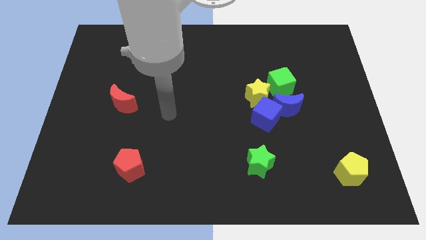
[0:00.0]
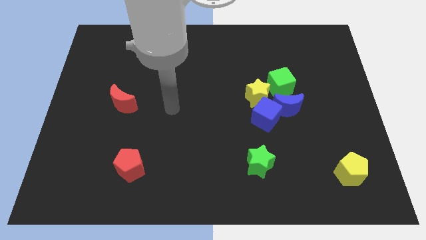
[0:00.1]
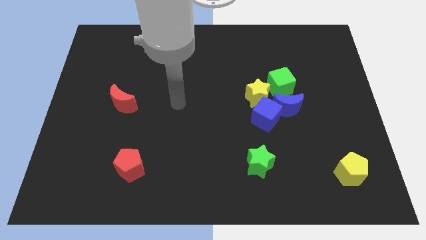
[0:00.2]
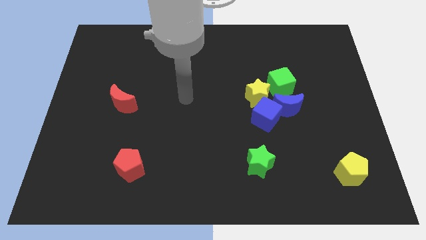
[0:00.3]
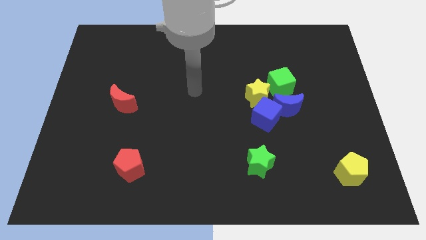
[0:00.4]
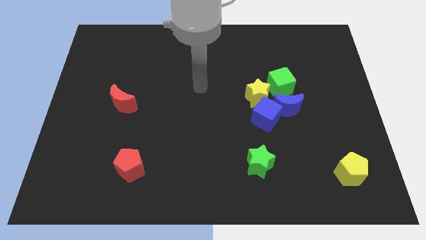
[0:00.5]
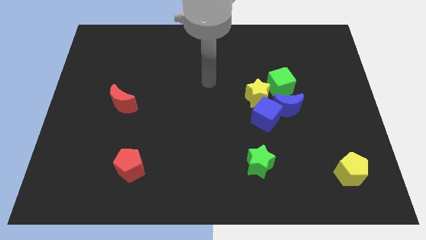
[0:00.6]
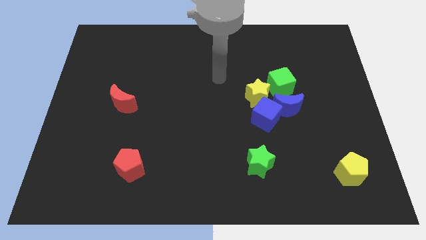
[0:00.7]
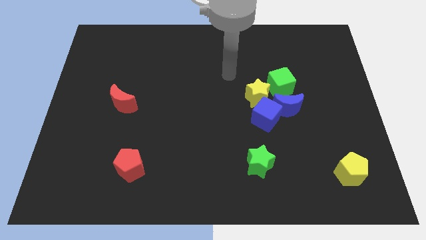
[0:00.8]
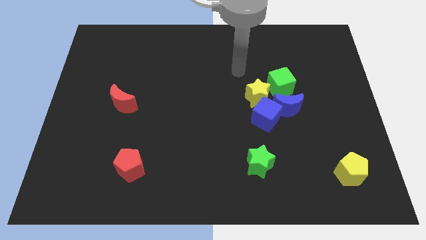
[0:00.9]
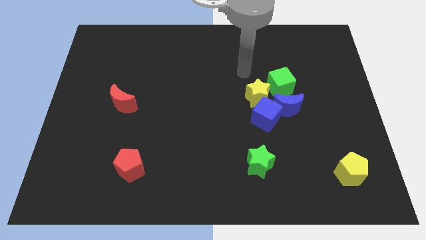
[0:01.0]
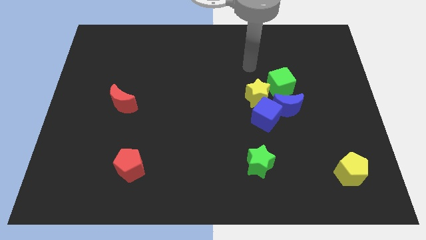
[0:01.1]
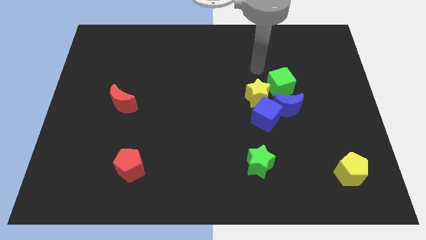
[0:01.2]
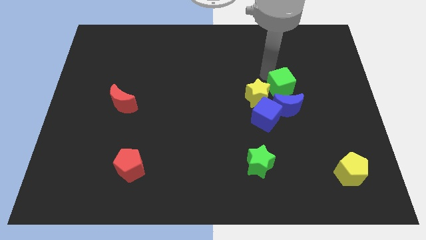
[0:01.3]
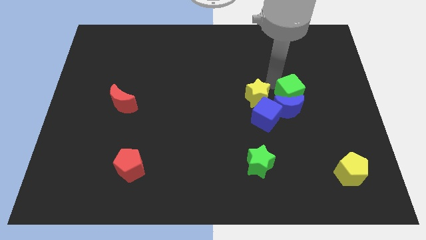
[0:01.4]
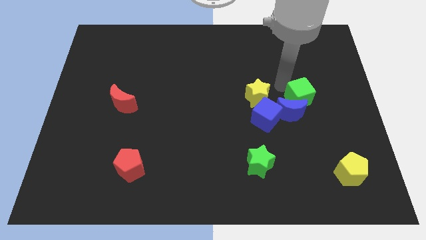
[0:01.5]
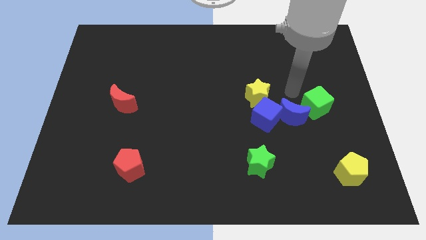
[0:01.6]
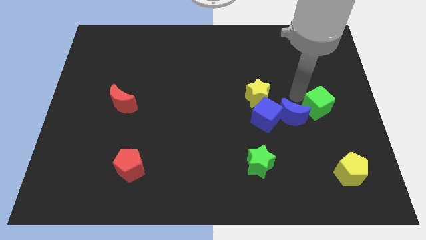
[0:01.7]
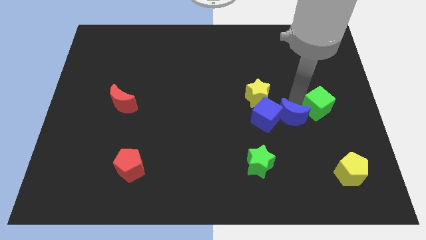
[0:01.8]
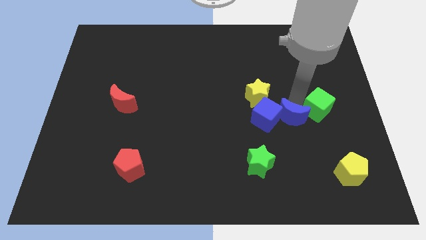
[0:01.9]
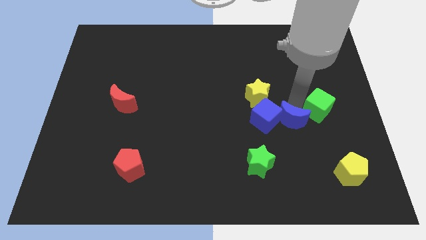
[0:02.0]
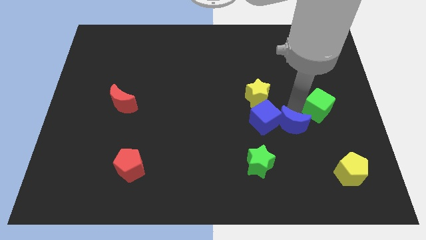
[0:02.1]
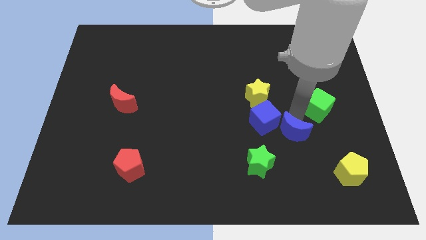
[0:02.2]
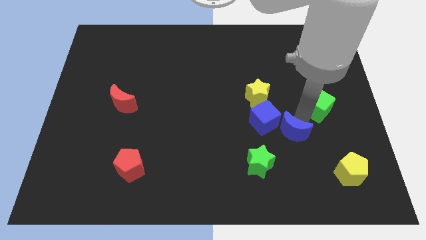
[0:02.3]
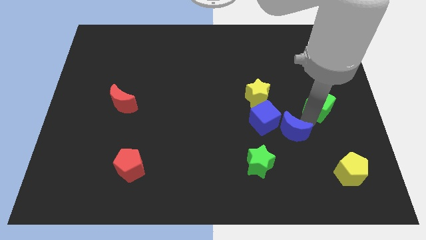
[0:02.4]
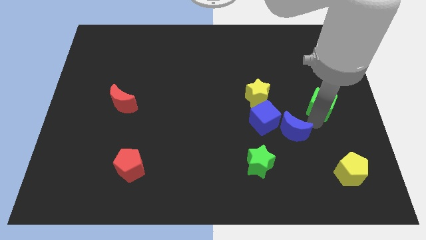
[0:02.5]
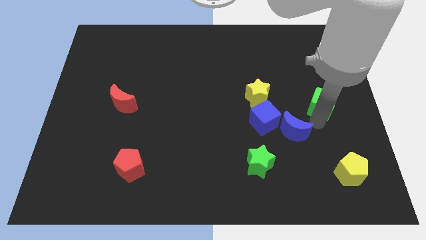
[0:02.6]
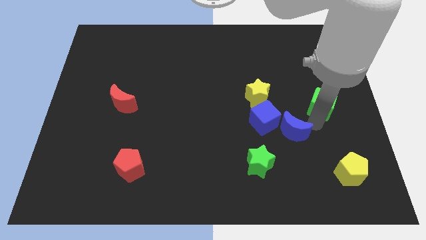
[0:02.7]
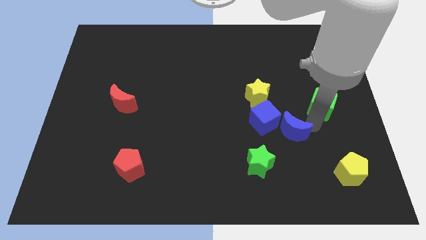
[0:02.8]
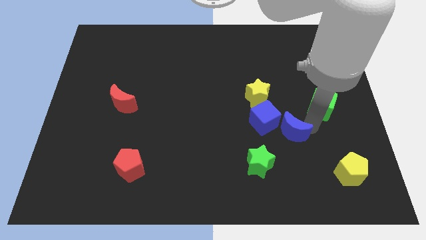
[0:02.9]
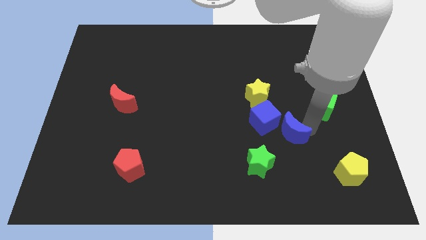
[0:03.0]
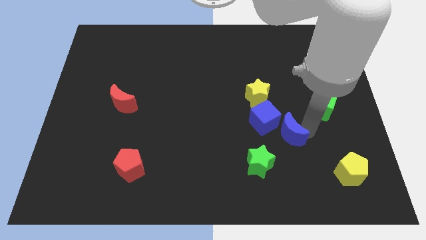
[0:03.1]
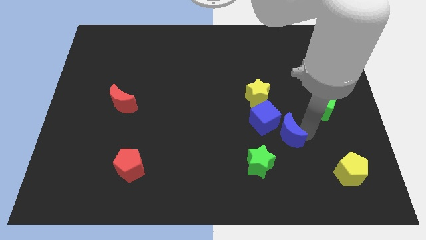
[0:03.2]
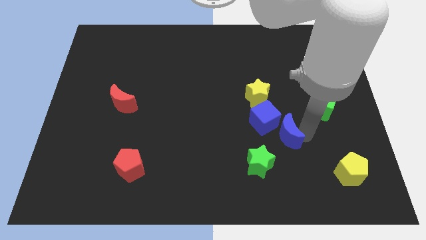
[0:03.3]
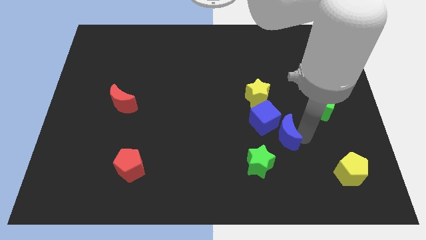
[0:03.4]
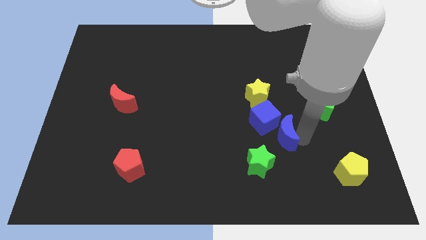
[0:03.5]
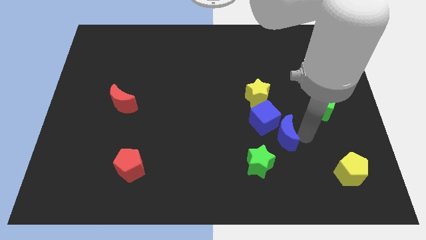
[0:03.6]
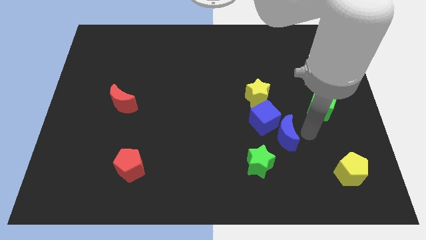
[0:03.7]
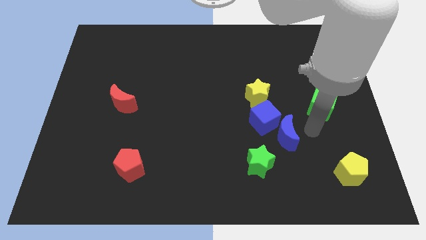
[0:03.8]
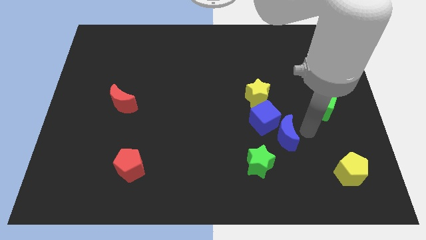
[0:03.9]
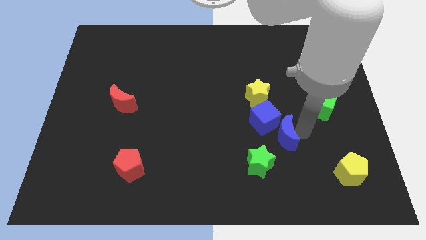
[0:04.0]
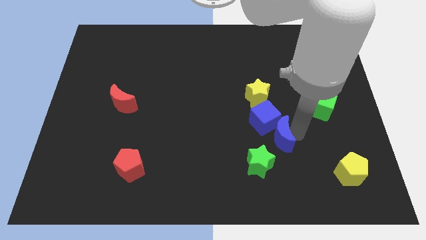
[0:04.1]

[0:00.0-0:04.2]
move the blue moon a little diagonally down and to the left

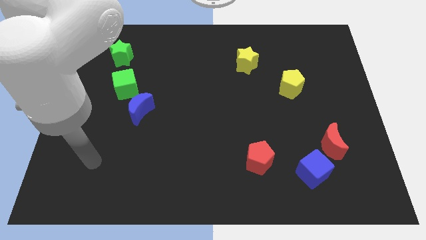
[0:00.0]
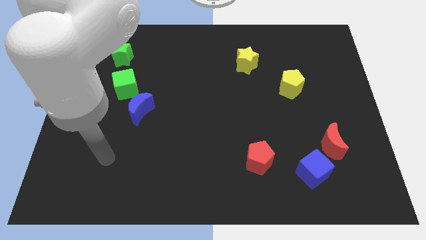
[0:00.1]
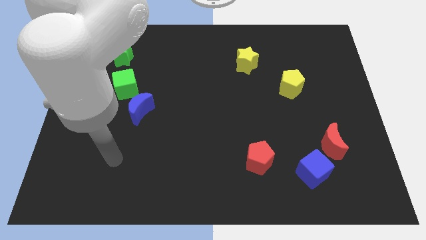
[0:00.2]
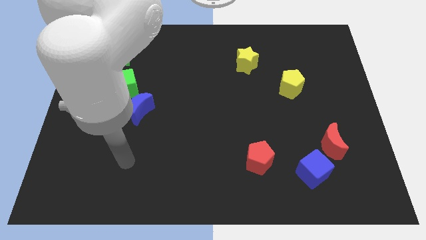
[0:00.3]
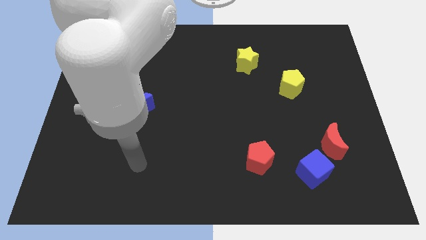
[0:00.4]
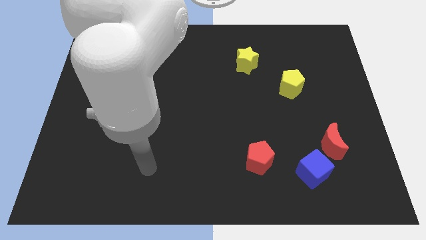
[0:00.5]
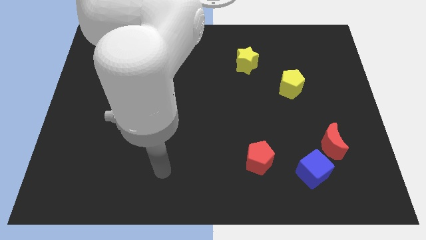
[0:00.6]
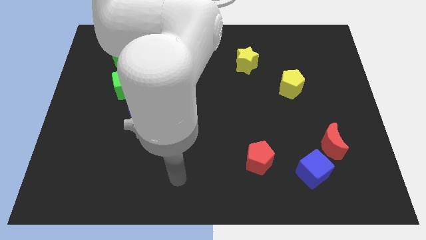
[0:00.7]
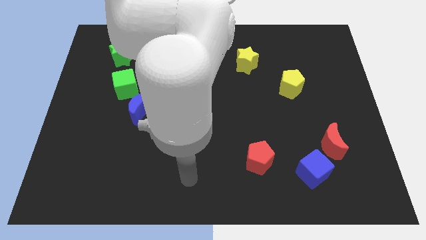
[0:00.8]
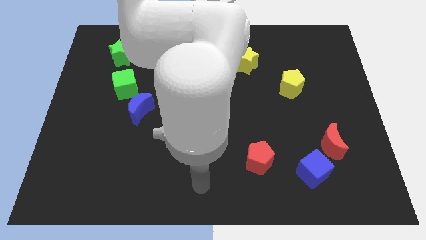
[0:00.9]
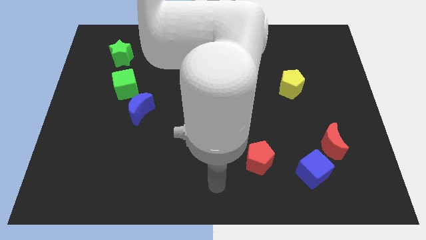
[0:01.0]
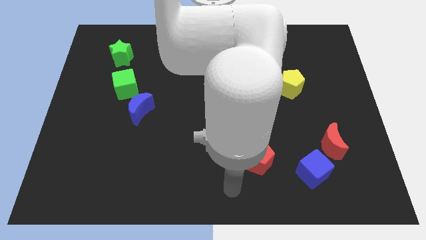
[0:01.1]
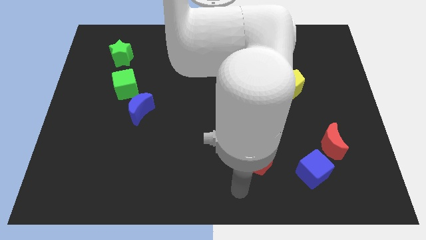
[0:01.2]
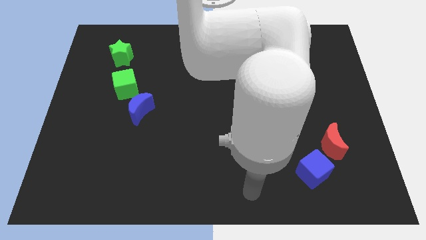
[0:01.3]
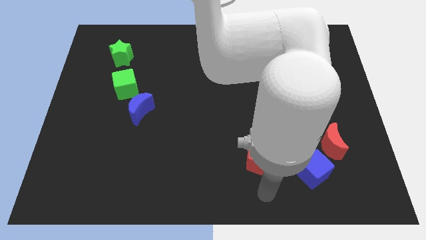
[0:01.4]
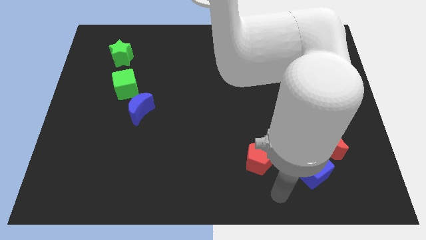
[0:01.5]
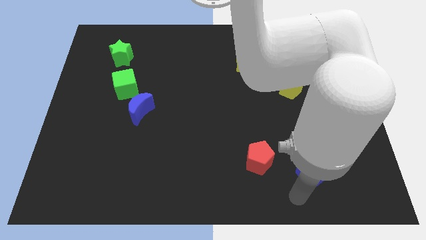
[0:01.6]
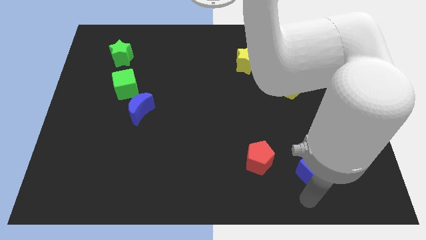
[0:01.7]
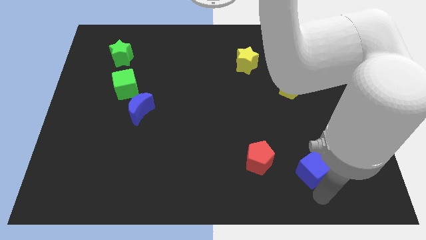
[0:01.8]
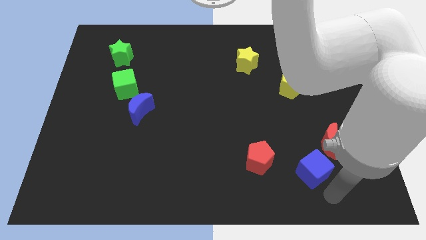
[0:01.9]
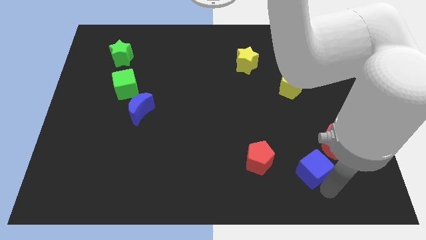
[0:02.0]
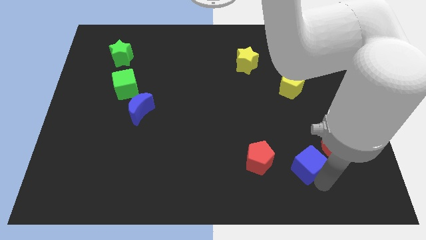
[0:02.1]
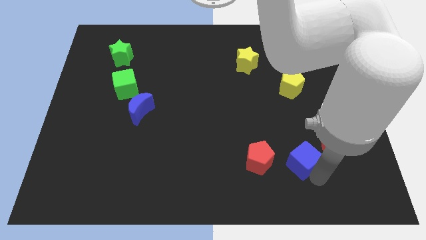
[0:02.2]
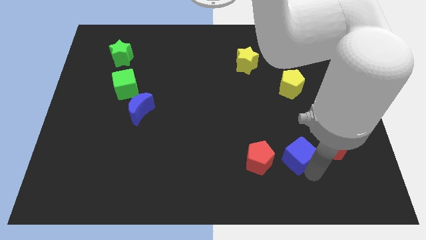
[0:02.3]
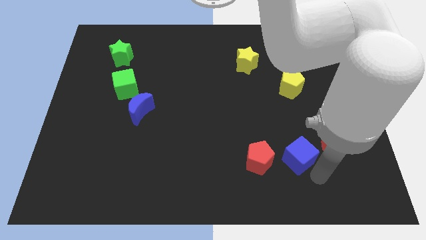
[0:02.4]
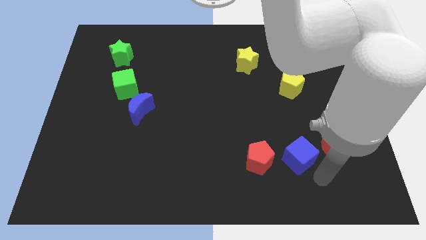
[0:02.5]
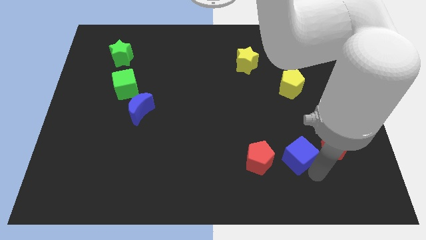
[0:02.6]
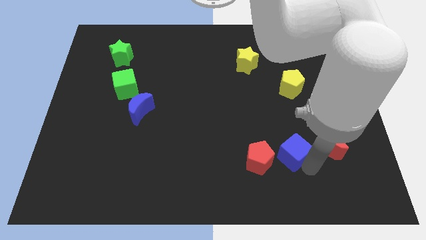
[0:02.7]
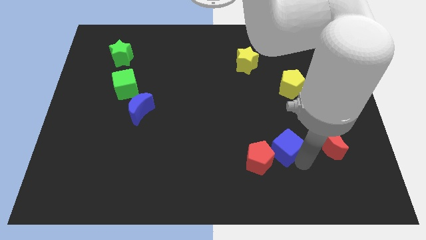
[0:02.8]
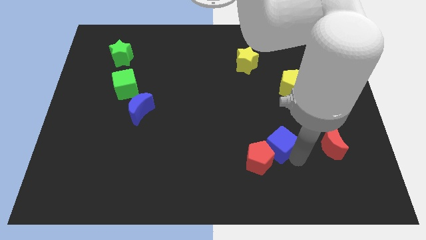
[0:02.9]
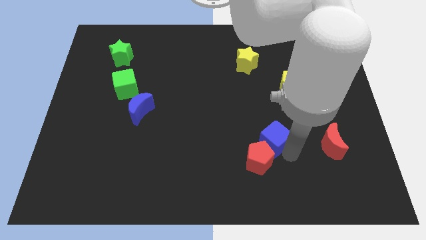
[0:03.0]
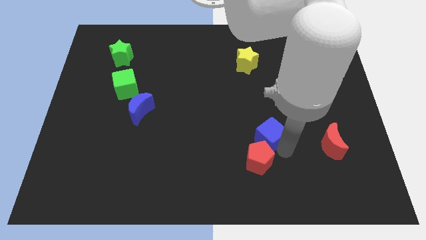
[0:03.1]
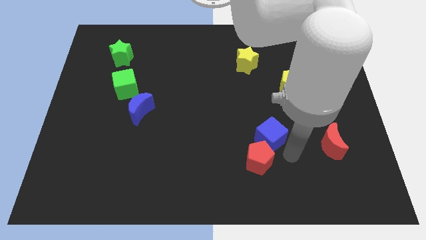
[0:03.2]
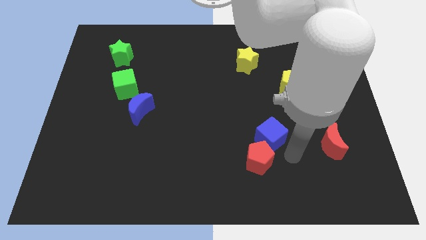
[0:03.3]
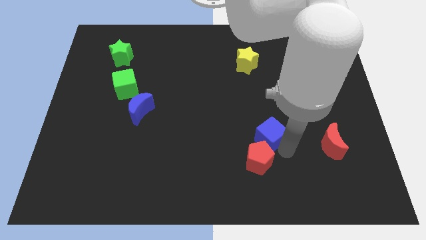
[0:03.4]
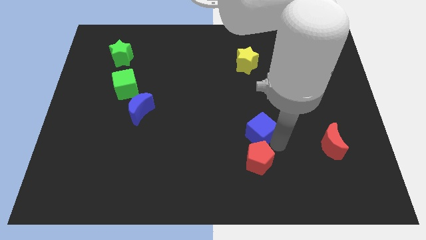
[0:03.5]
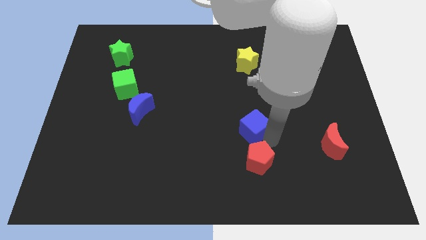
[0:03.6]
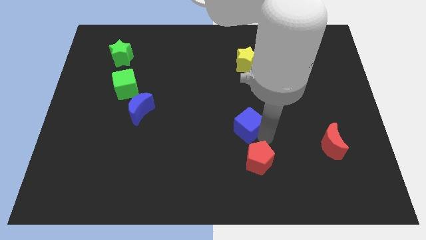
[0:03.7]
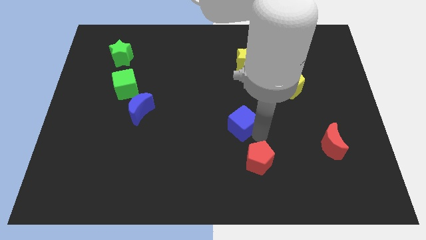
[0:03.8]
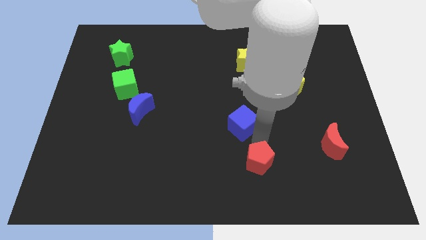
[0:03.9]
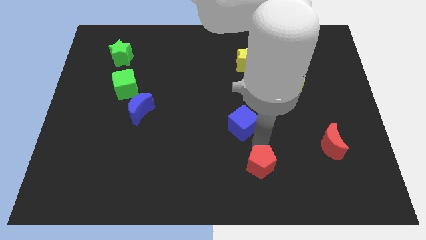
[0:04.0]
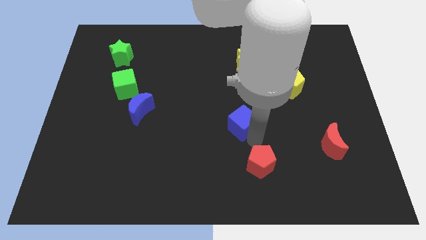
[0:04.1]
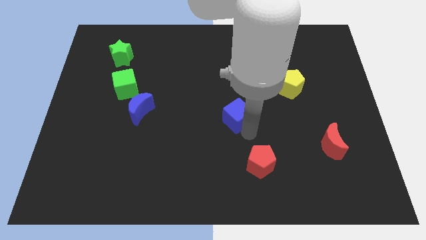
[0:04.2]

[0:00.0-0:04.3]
push the blue cube up and to the left
